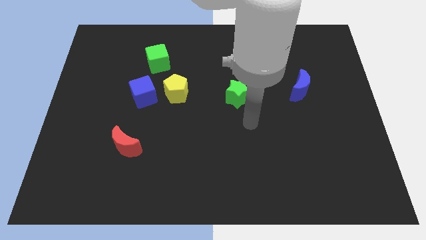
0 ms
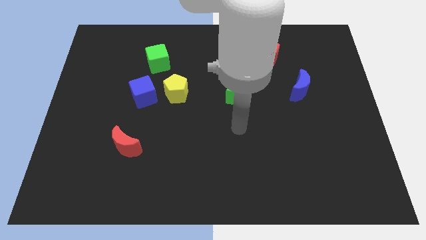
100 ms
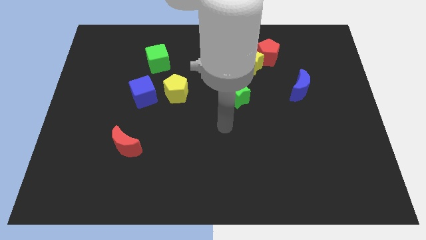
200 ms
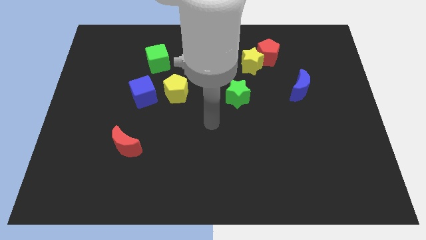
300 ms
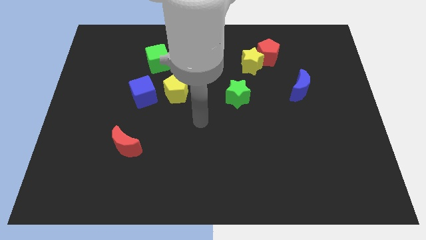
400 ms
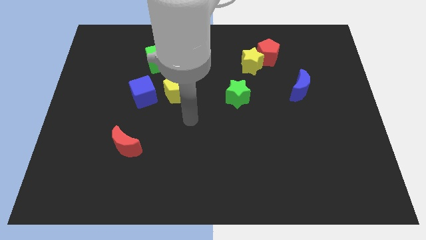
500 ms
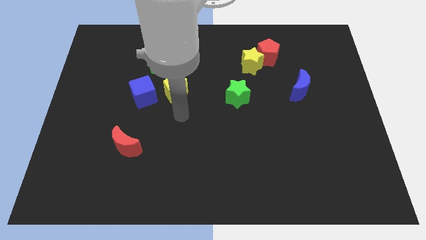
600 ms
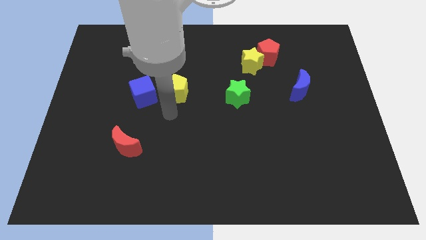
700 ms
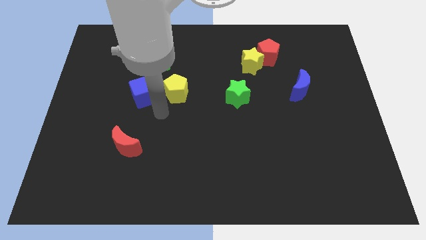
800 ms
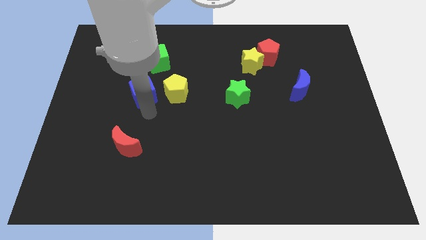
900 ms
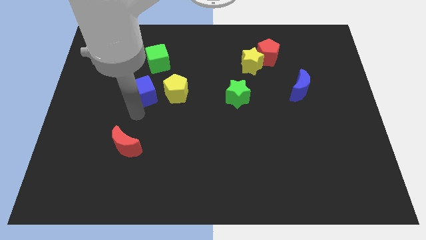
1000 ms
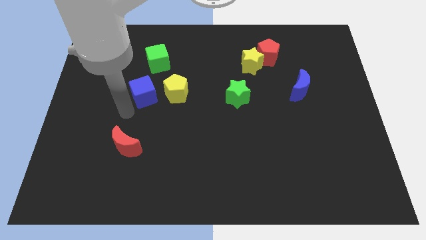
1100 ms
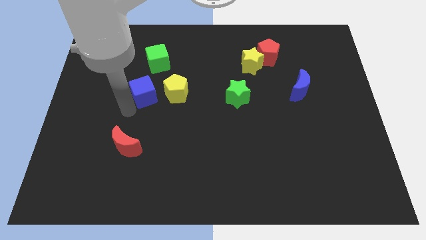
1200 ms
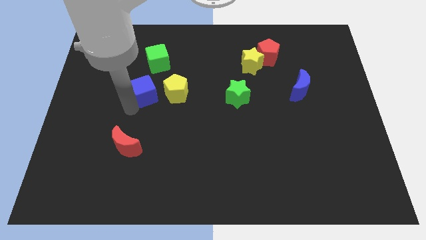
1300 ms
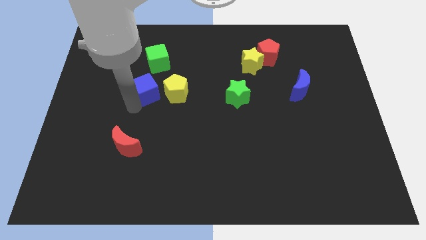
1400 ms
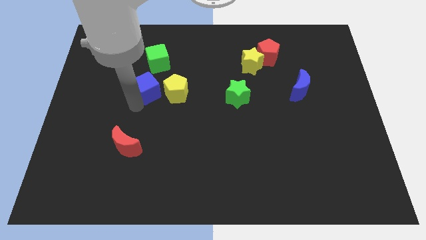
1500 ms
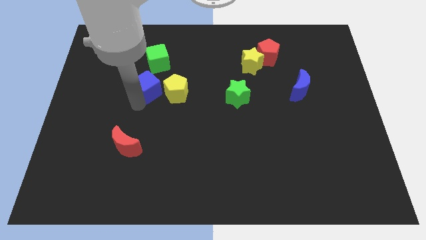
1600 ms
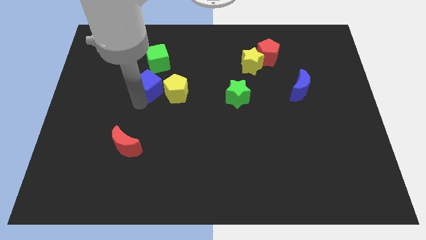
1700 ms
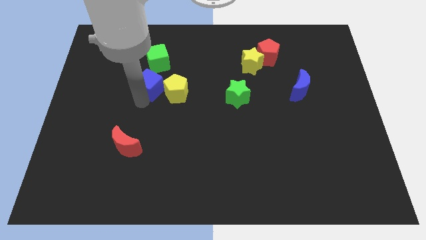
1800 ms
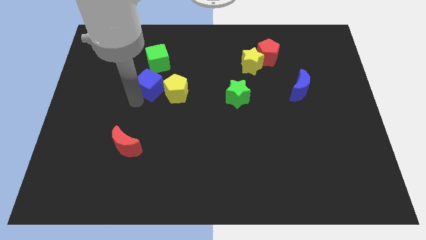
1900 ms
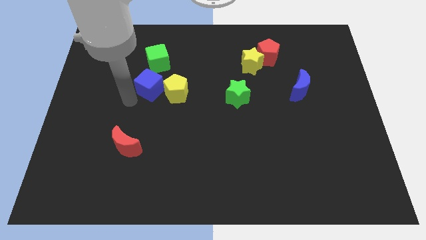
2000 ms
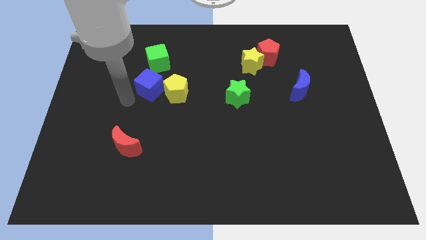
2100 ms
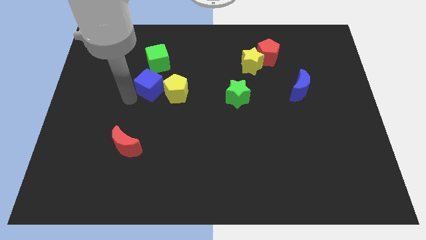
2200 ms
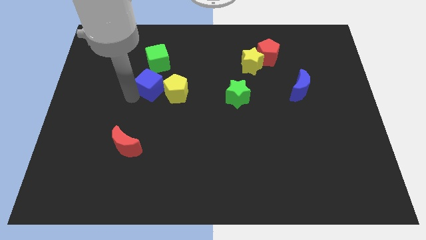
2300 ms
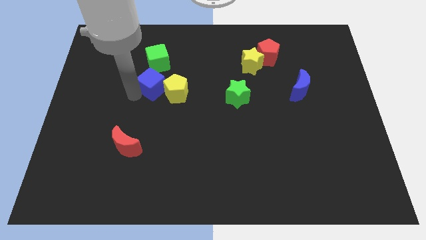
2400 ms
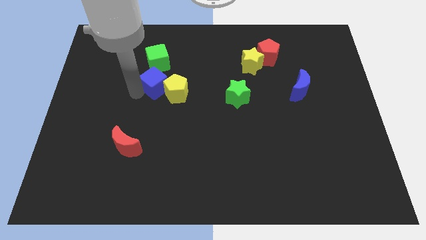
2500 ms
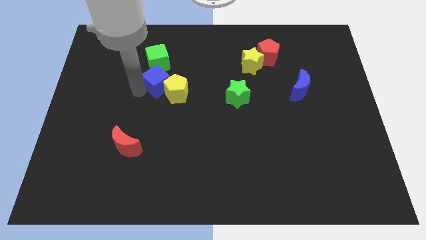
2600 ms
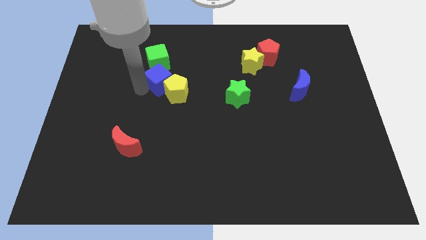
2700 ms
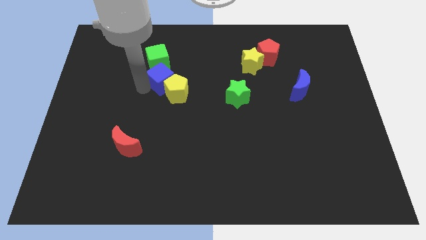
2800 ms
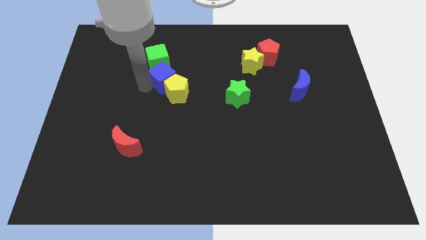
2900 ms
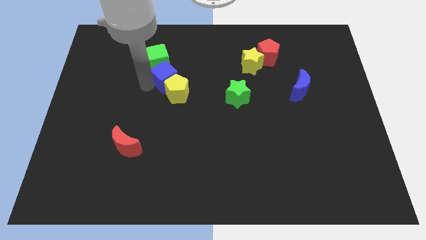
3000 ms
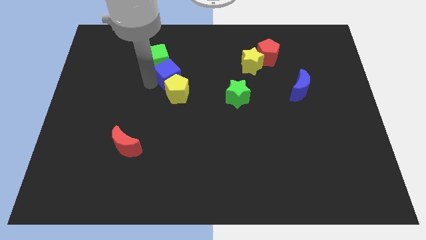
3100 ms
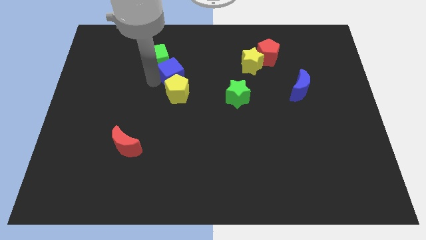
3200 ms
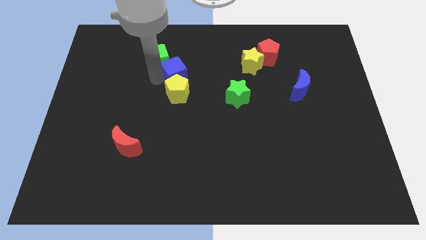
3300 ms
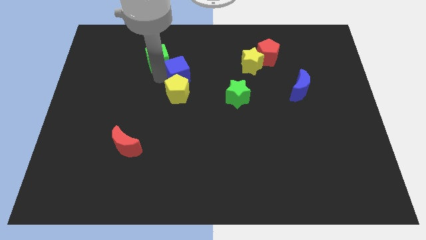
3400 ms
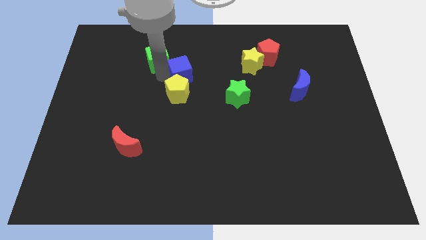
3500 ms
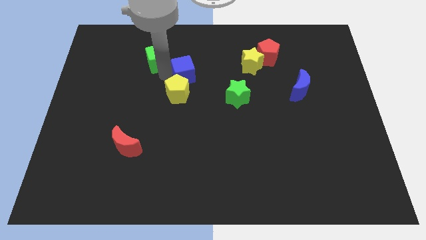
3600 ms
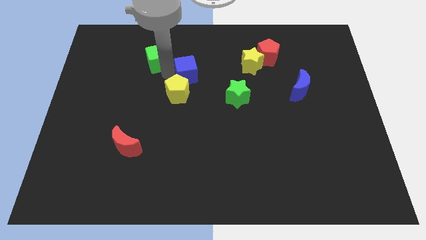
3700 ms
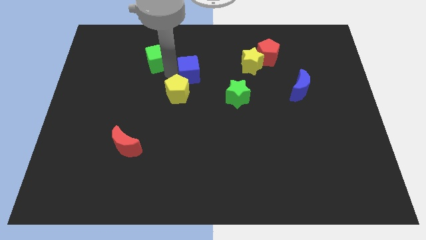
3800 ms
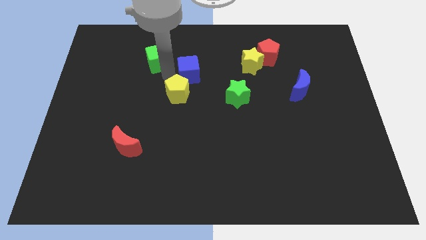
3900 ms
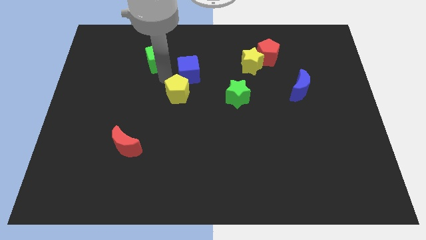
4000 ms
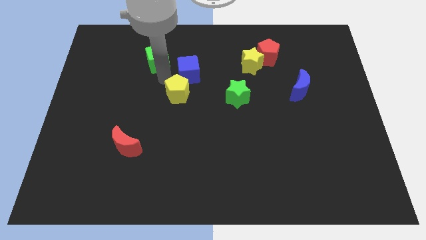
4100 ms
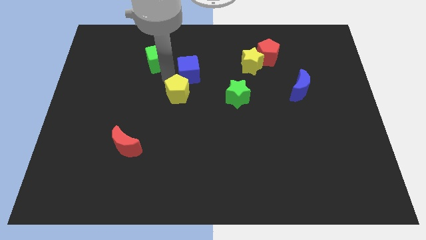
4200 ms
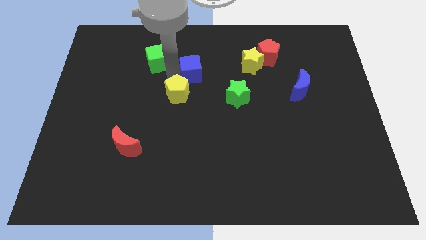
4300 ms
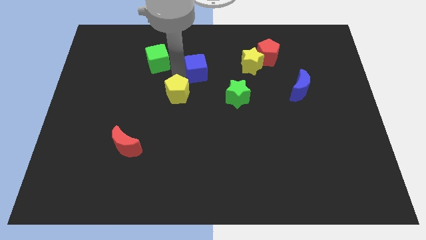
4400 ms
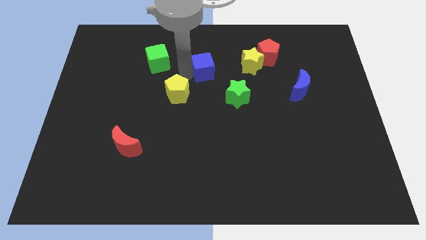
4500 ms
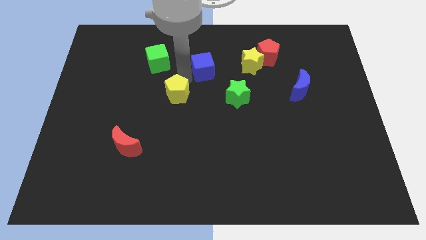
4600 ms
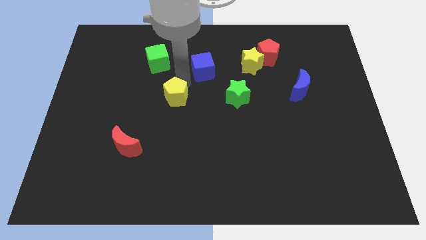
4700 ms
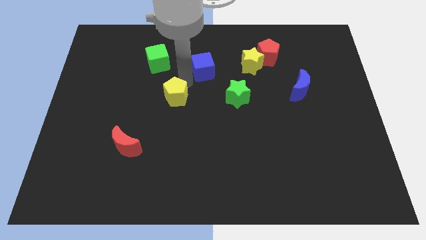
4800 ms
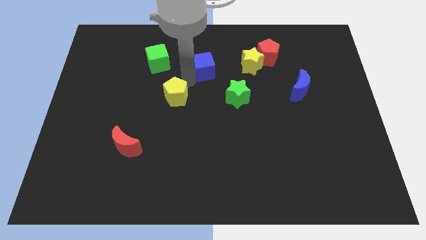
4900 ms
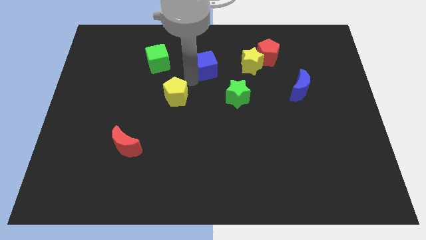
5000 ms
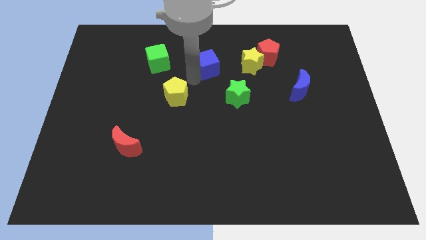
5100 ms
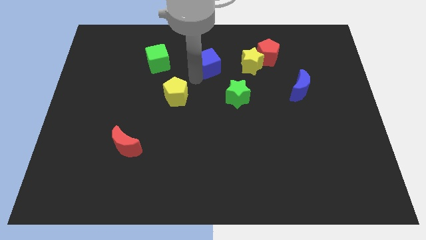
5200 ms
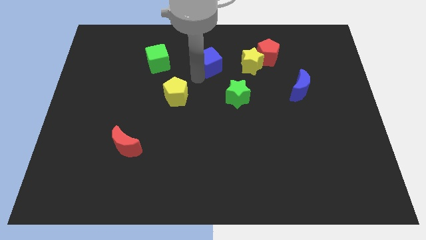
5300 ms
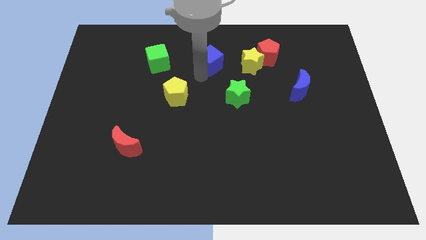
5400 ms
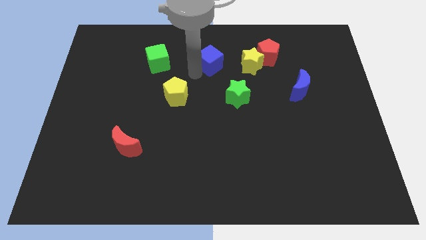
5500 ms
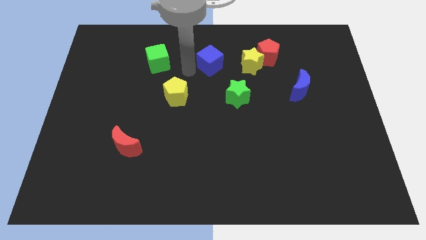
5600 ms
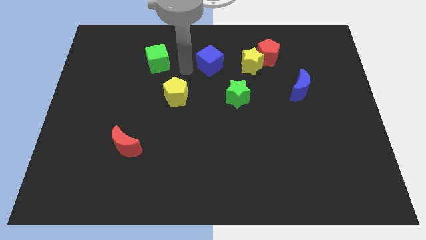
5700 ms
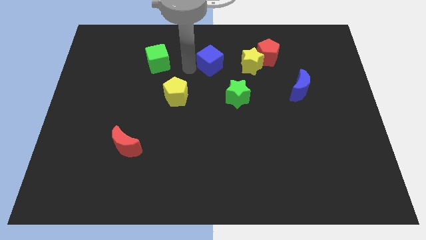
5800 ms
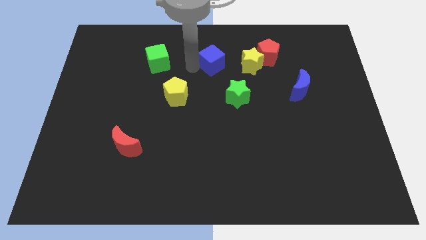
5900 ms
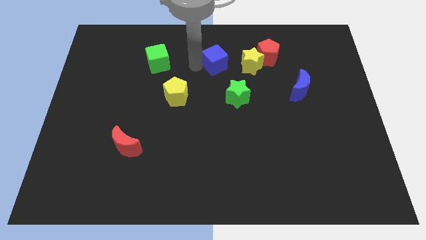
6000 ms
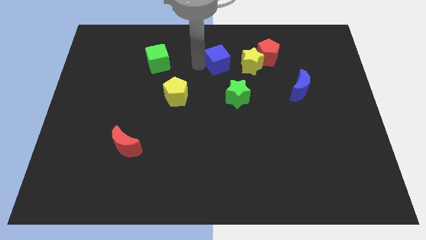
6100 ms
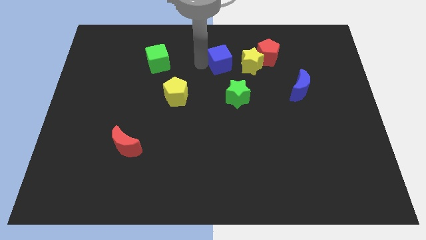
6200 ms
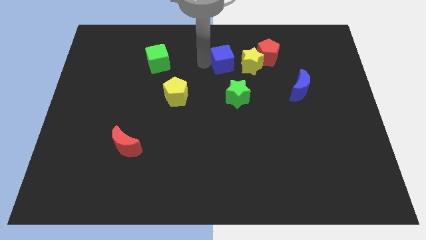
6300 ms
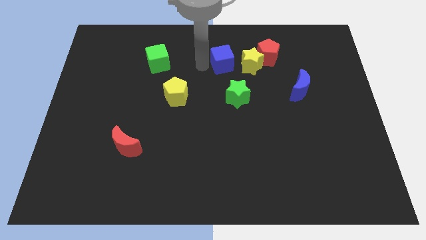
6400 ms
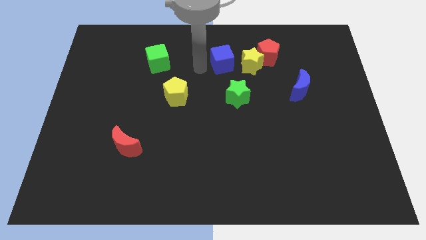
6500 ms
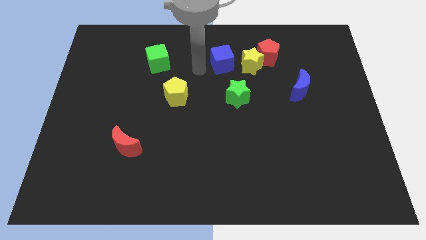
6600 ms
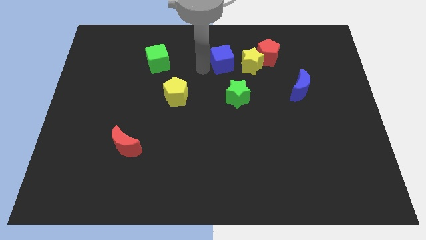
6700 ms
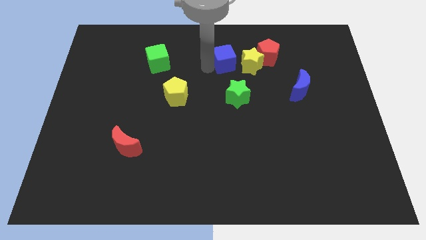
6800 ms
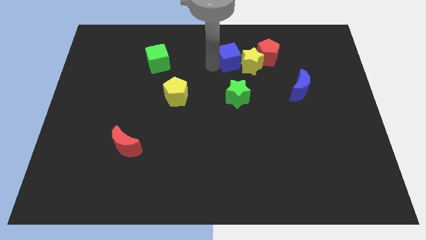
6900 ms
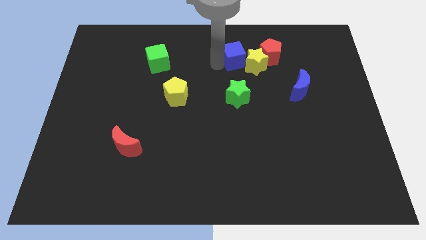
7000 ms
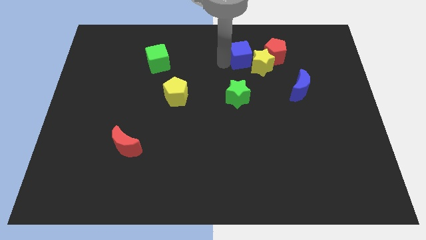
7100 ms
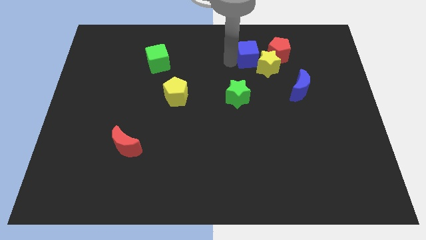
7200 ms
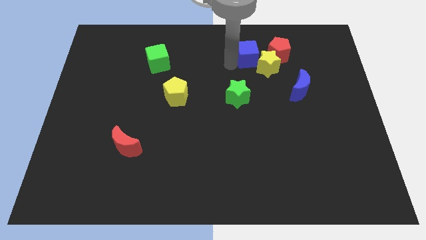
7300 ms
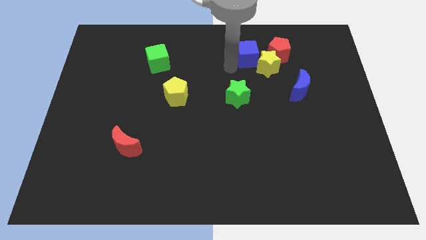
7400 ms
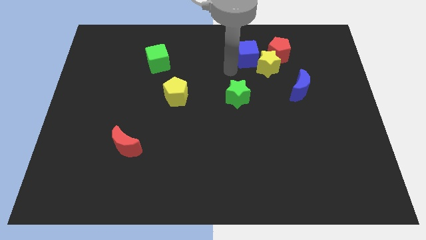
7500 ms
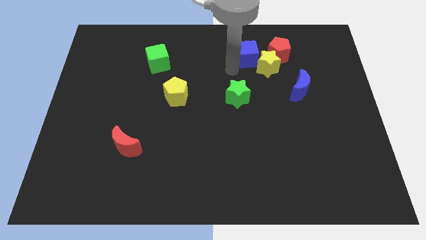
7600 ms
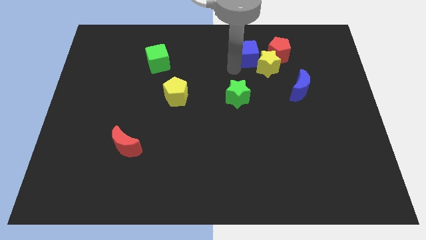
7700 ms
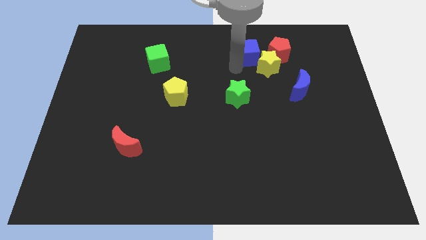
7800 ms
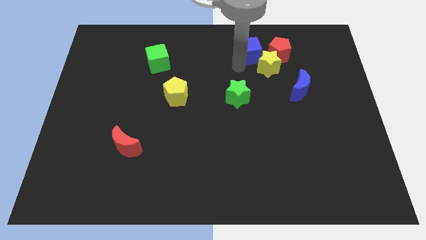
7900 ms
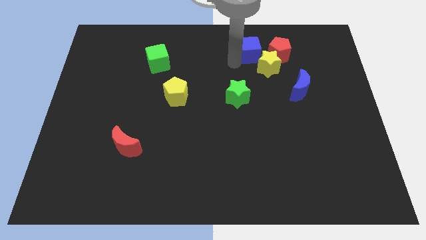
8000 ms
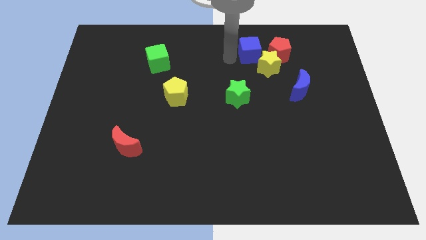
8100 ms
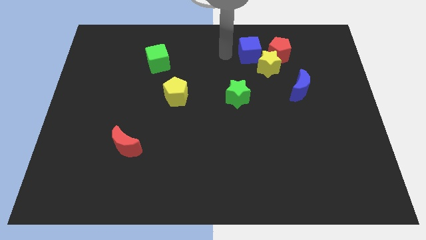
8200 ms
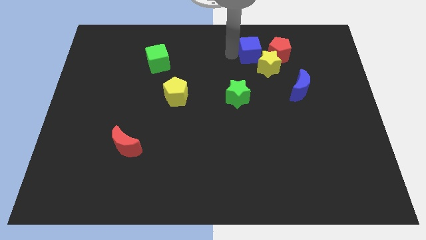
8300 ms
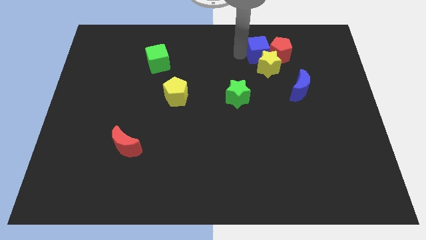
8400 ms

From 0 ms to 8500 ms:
move the blue cube to the red pentagon
